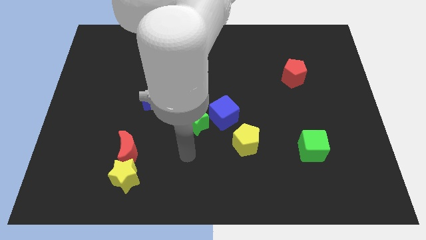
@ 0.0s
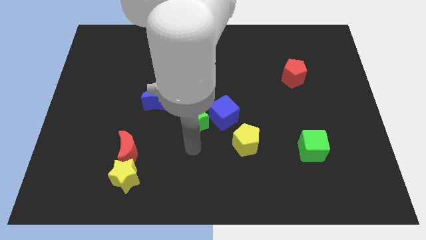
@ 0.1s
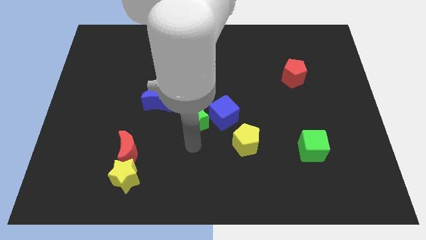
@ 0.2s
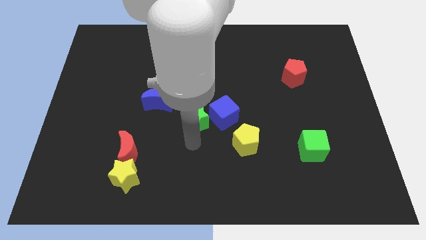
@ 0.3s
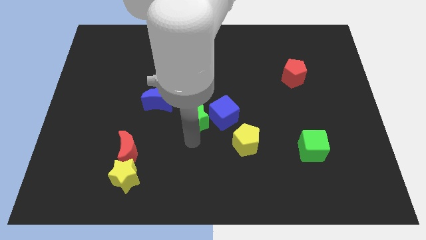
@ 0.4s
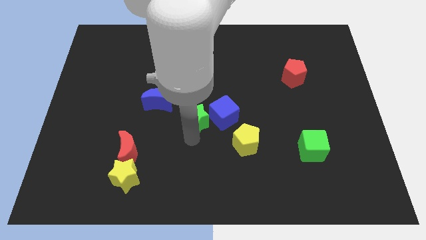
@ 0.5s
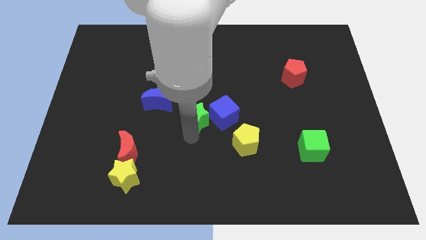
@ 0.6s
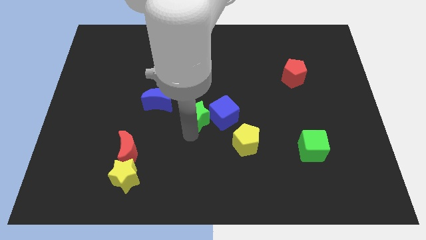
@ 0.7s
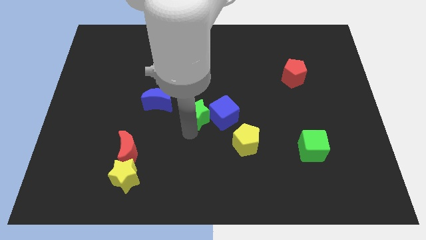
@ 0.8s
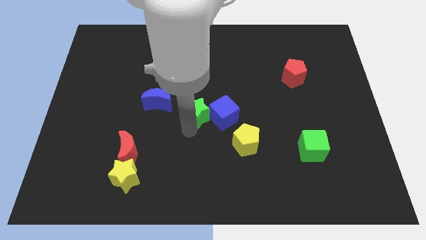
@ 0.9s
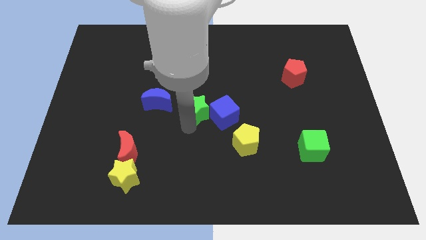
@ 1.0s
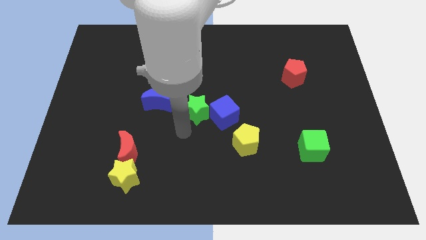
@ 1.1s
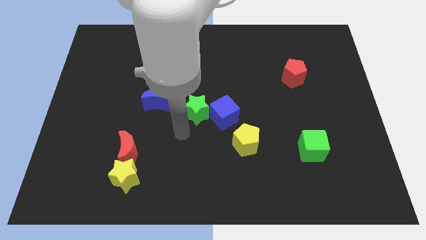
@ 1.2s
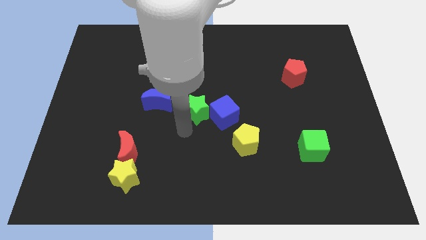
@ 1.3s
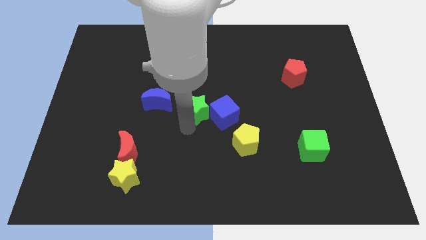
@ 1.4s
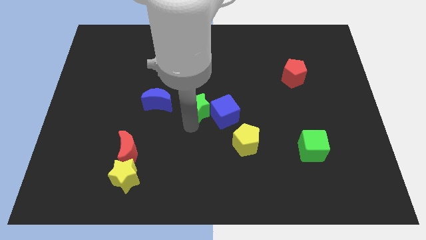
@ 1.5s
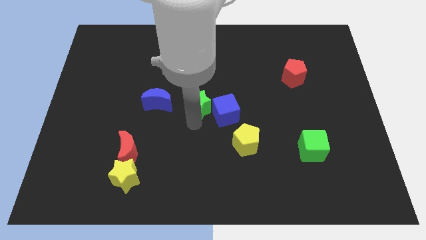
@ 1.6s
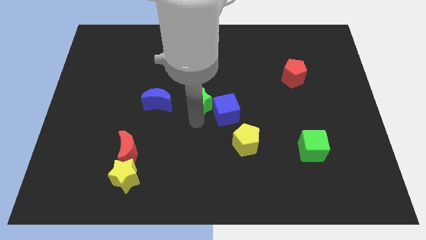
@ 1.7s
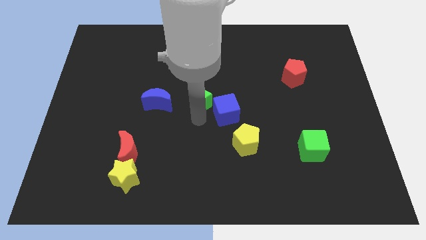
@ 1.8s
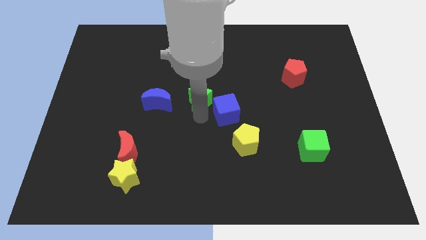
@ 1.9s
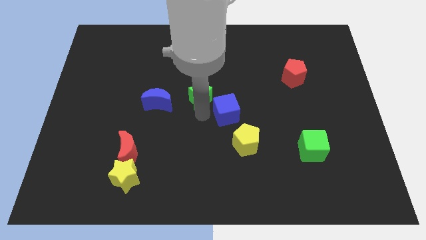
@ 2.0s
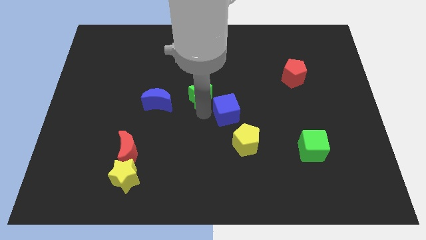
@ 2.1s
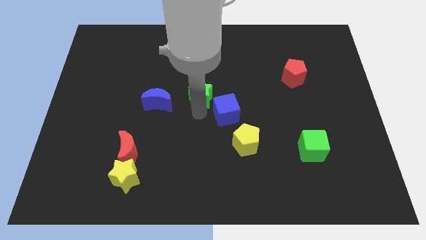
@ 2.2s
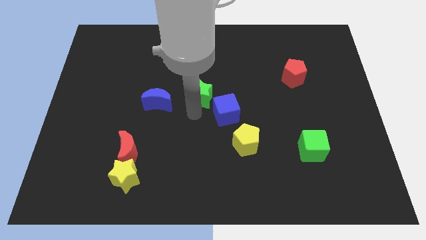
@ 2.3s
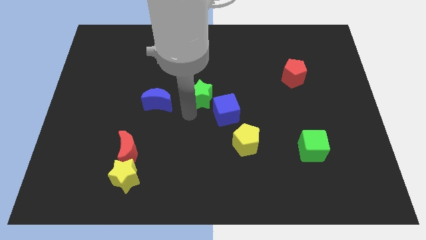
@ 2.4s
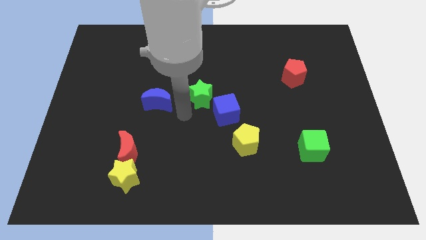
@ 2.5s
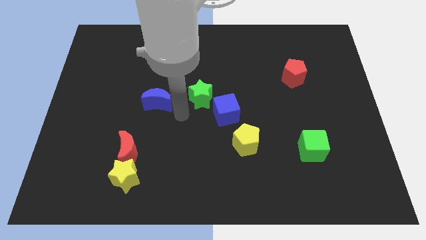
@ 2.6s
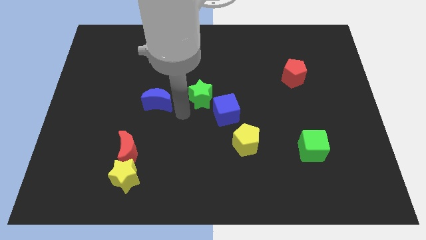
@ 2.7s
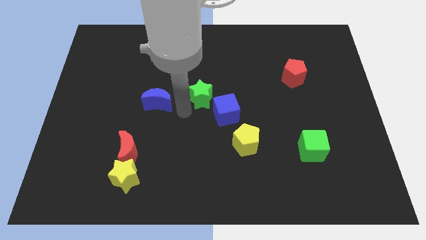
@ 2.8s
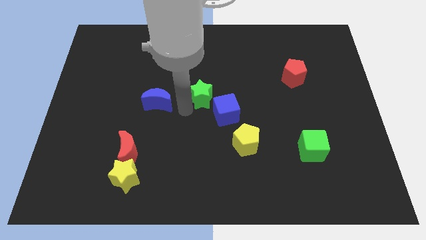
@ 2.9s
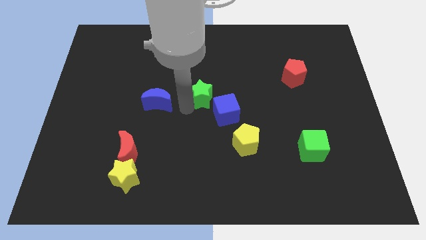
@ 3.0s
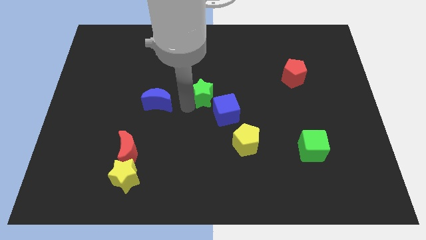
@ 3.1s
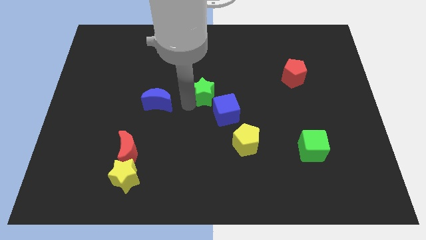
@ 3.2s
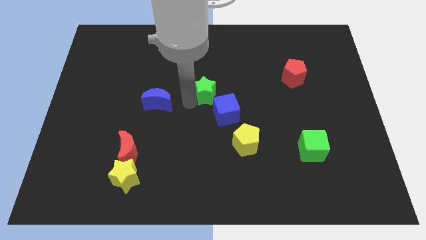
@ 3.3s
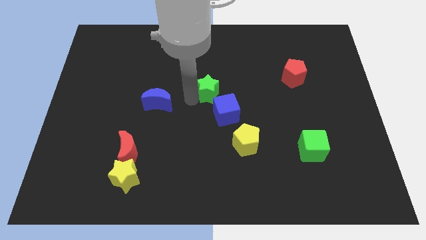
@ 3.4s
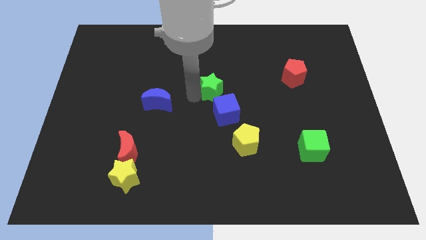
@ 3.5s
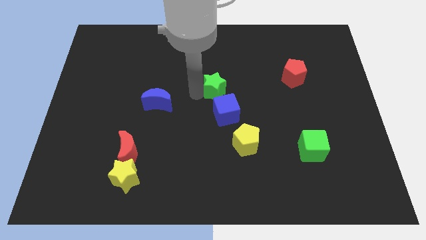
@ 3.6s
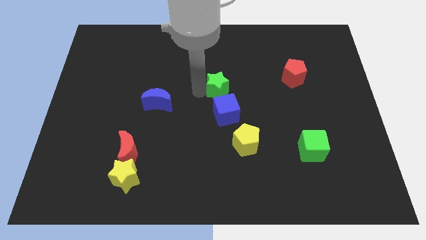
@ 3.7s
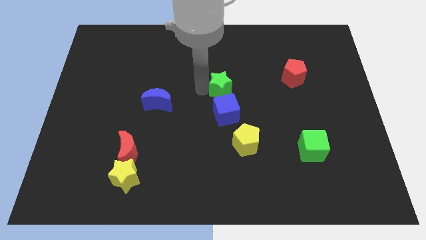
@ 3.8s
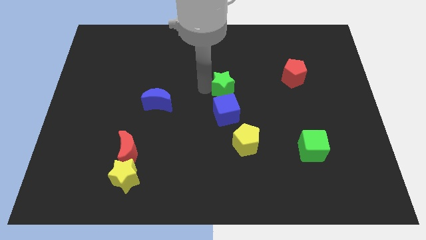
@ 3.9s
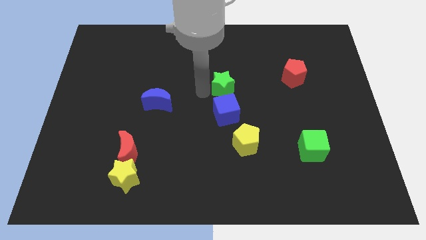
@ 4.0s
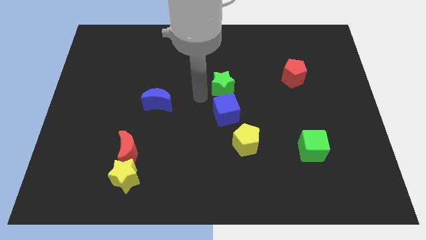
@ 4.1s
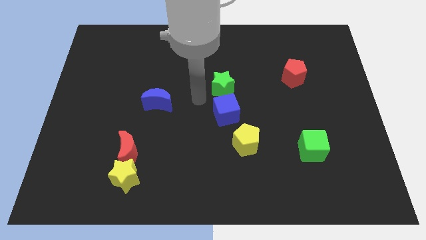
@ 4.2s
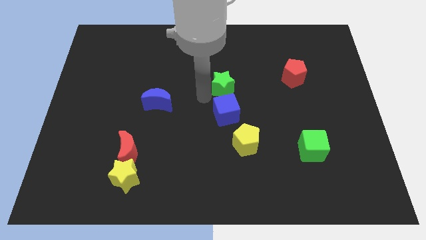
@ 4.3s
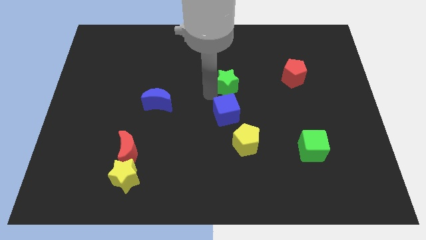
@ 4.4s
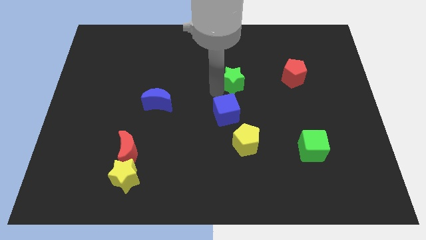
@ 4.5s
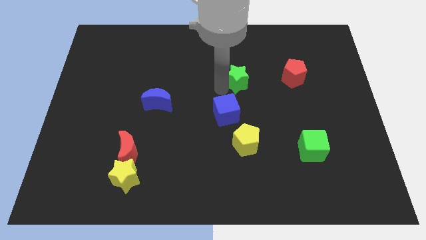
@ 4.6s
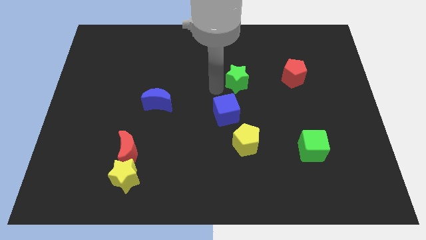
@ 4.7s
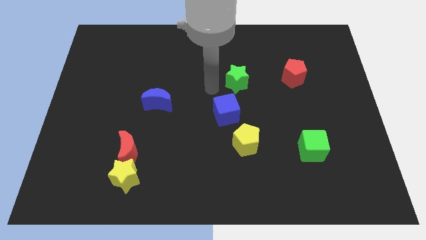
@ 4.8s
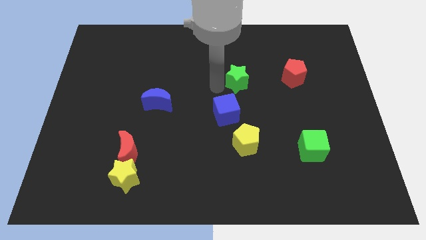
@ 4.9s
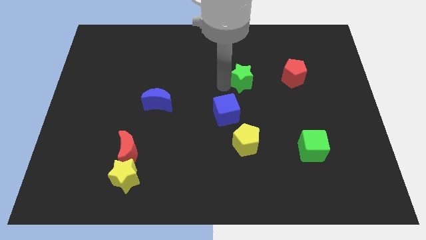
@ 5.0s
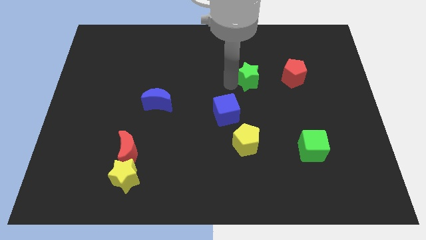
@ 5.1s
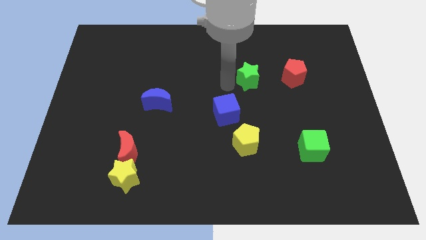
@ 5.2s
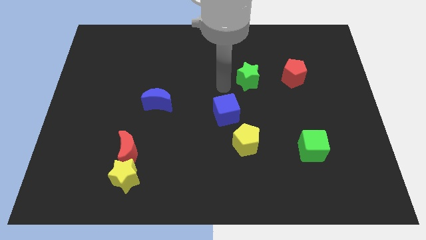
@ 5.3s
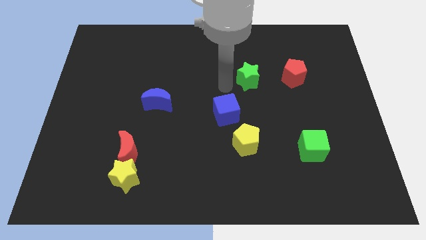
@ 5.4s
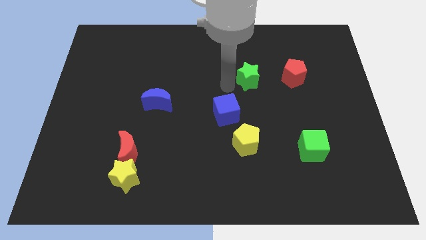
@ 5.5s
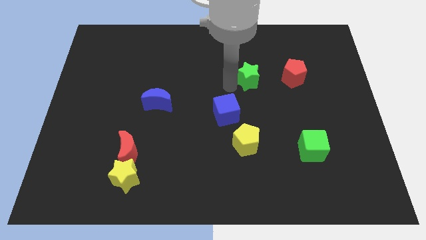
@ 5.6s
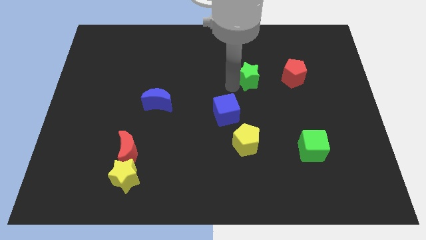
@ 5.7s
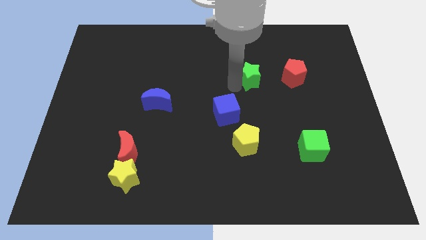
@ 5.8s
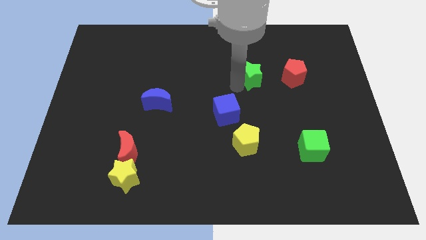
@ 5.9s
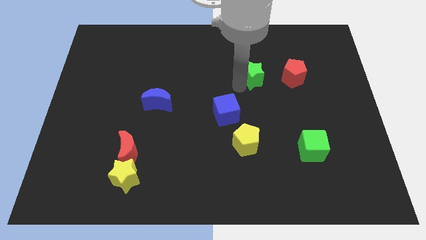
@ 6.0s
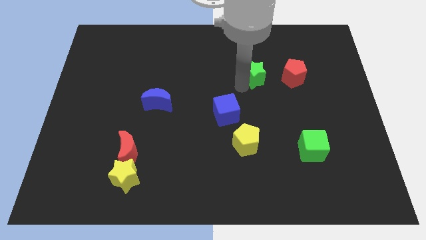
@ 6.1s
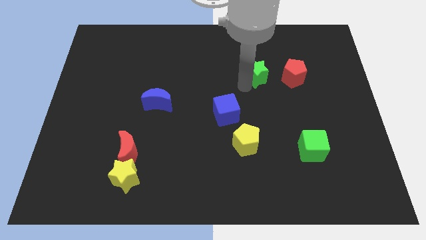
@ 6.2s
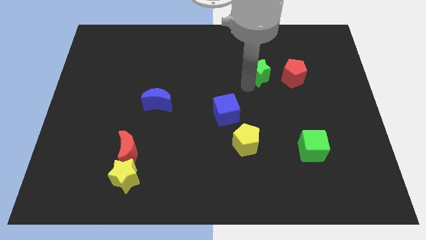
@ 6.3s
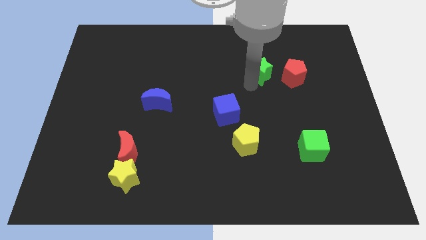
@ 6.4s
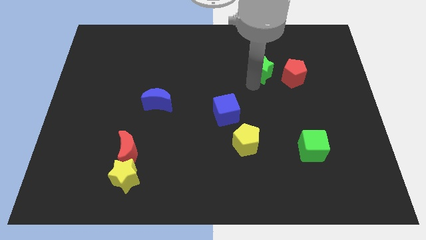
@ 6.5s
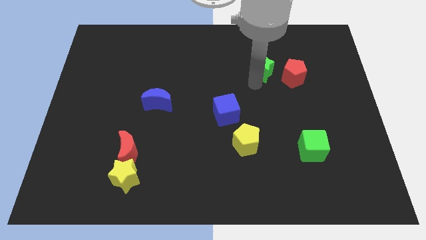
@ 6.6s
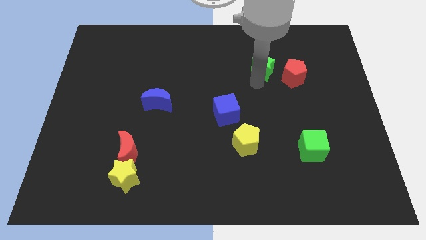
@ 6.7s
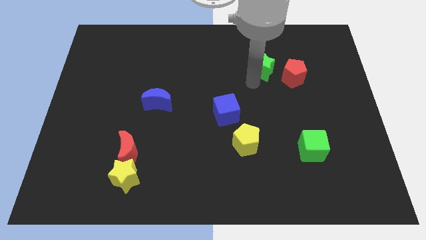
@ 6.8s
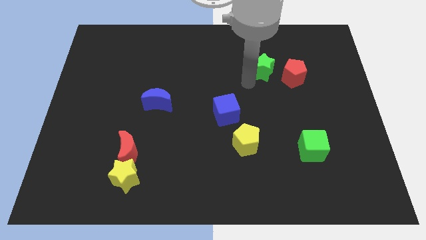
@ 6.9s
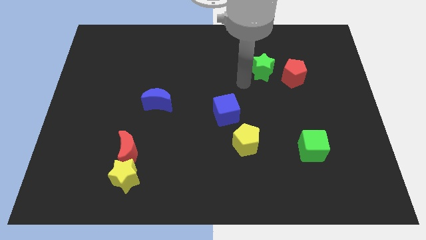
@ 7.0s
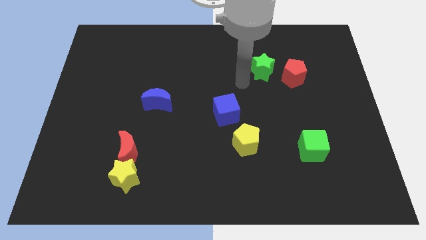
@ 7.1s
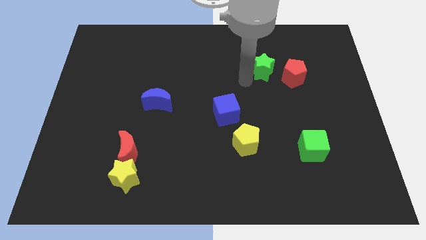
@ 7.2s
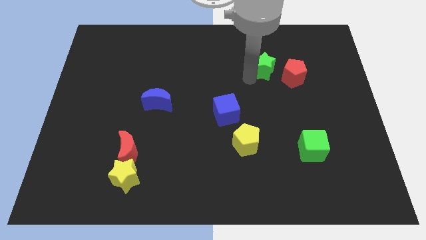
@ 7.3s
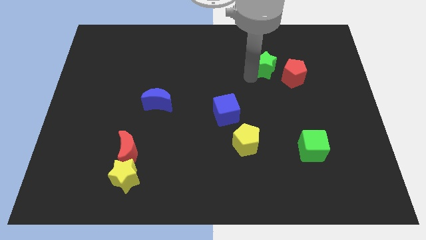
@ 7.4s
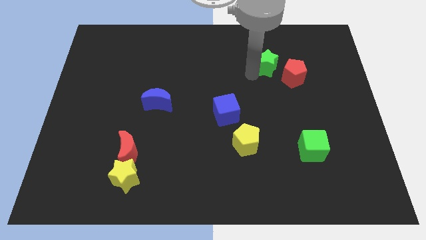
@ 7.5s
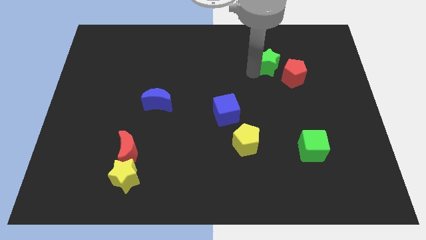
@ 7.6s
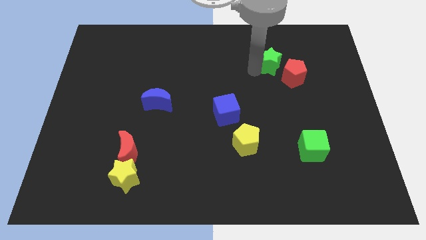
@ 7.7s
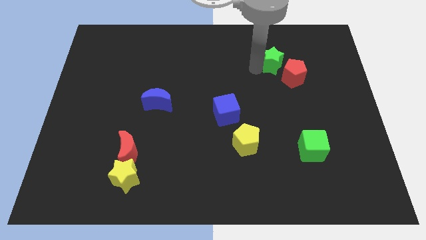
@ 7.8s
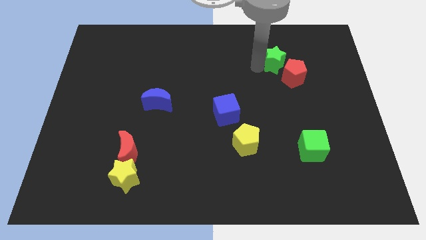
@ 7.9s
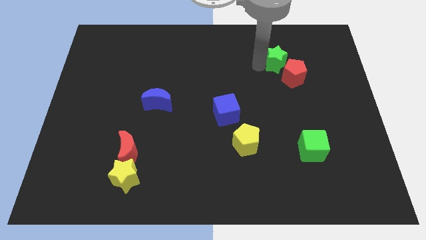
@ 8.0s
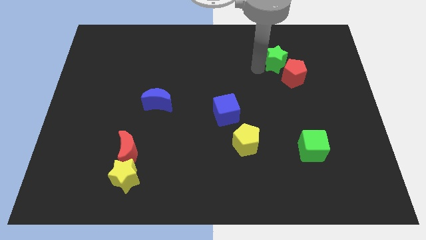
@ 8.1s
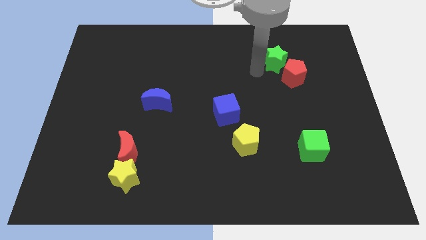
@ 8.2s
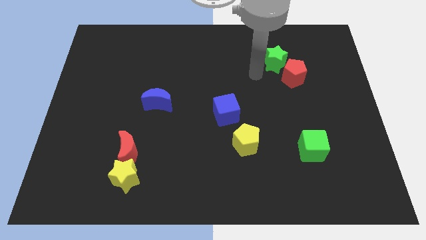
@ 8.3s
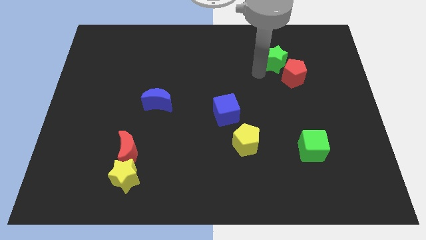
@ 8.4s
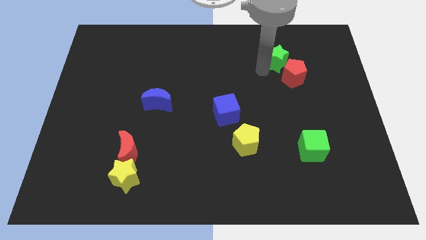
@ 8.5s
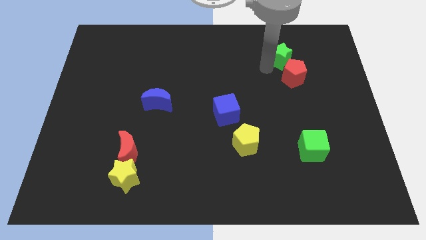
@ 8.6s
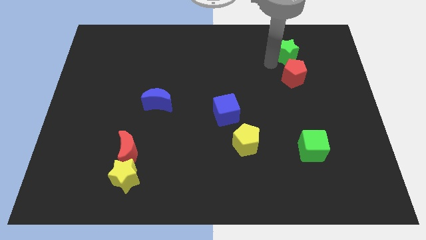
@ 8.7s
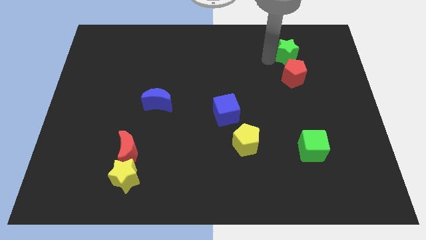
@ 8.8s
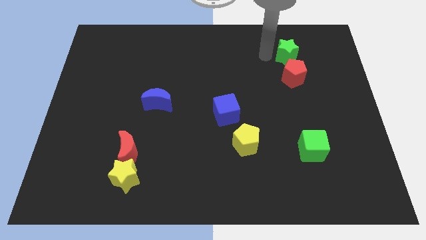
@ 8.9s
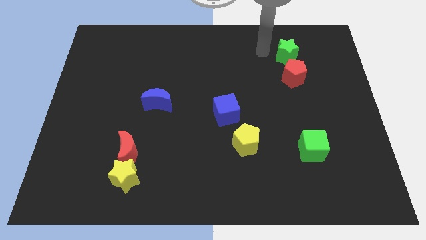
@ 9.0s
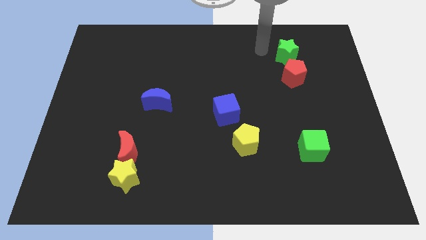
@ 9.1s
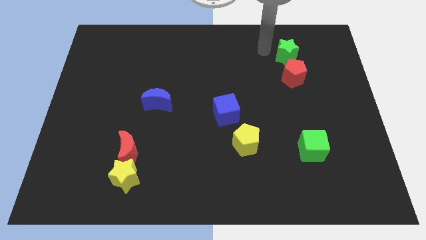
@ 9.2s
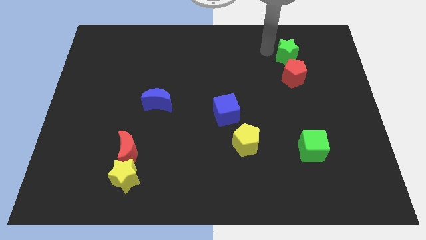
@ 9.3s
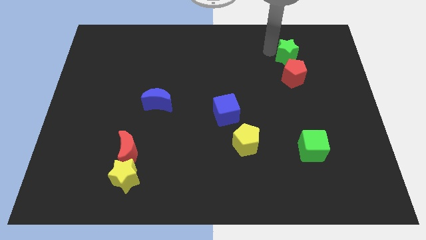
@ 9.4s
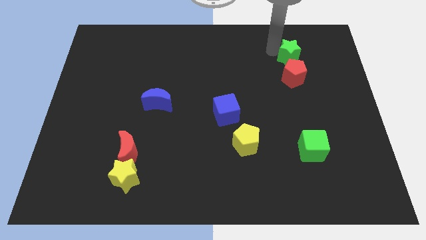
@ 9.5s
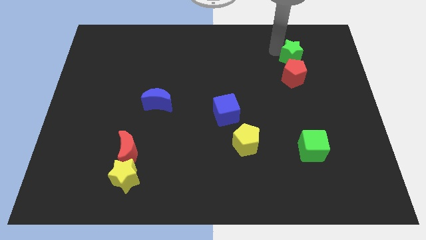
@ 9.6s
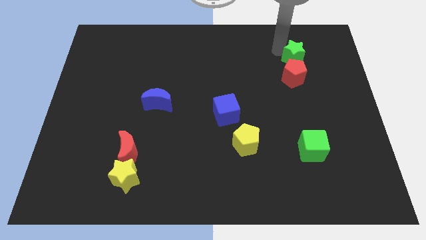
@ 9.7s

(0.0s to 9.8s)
put the green star diagonally up and to the right of the red pentagon
